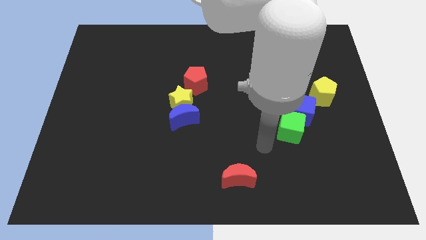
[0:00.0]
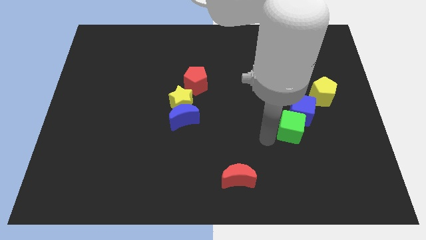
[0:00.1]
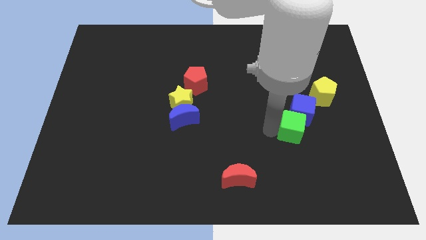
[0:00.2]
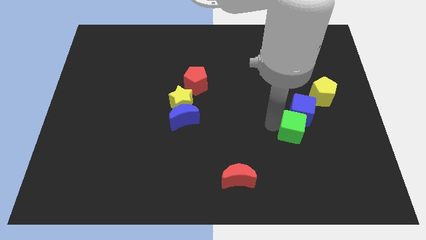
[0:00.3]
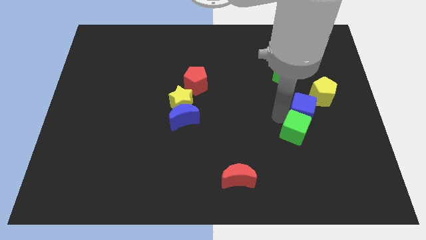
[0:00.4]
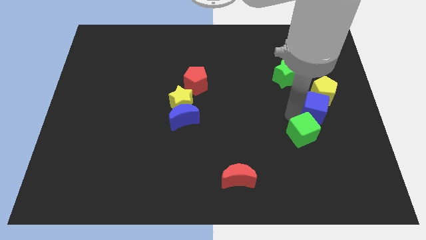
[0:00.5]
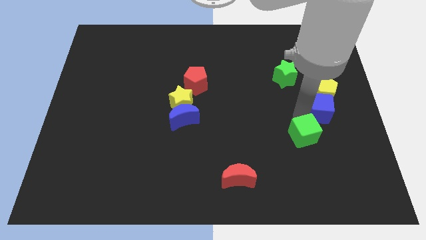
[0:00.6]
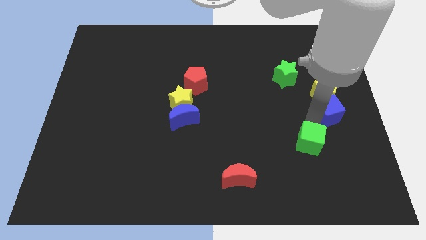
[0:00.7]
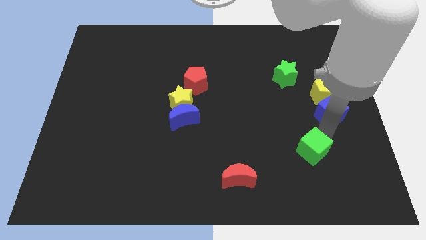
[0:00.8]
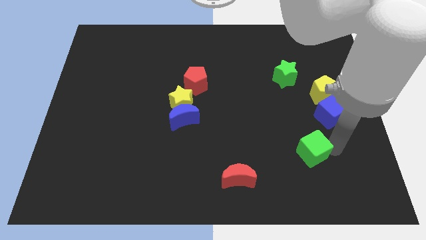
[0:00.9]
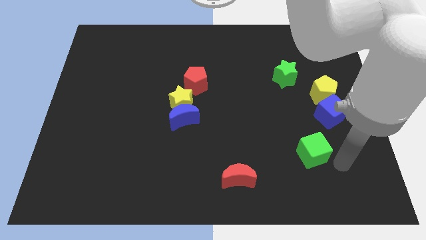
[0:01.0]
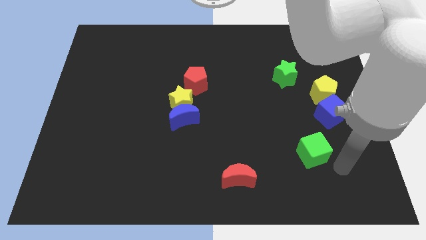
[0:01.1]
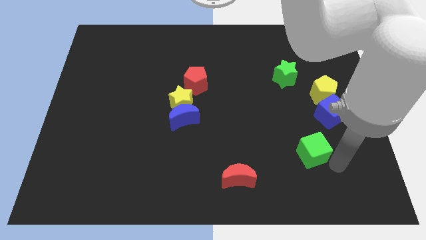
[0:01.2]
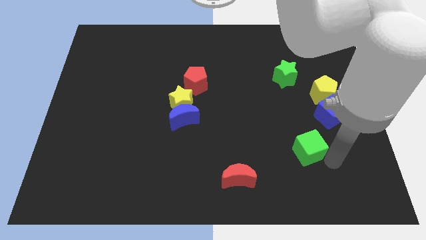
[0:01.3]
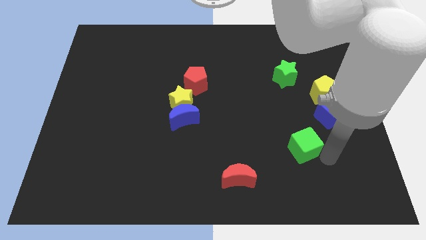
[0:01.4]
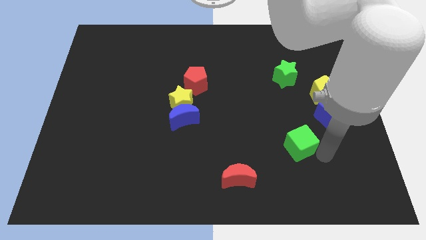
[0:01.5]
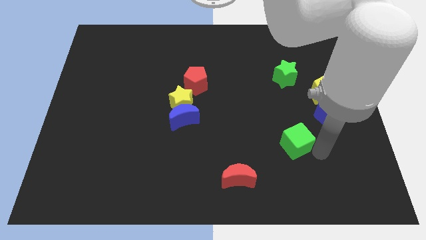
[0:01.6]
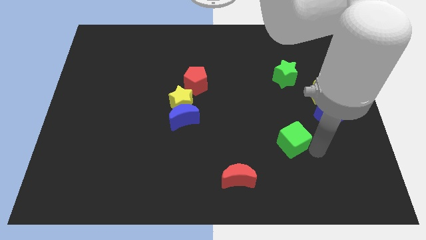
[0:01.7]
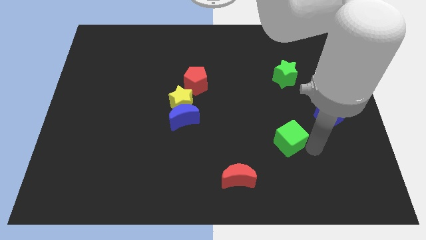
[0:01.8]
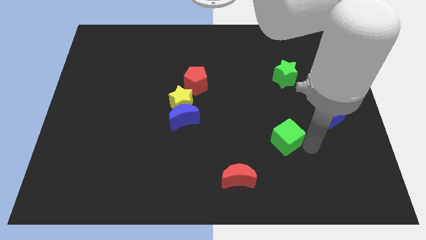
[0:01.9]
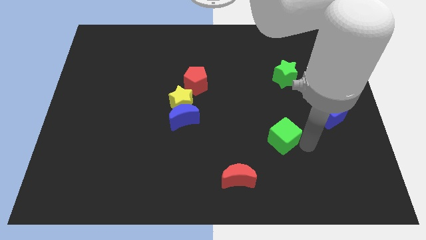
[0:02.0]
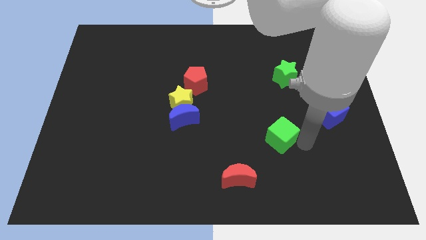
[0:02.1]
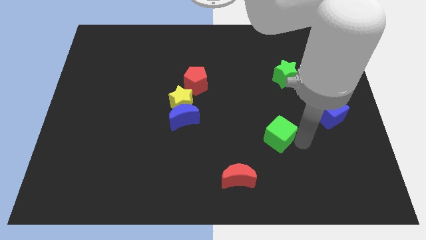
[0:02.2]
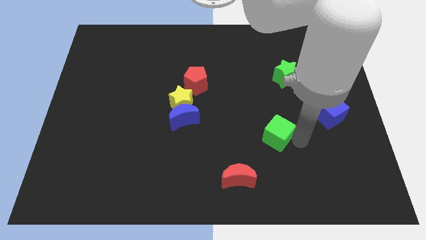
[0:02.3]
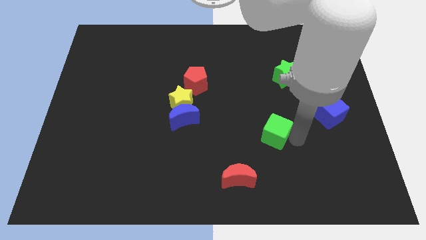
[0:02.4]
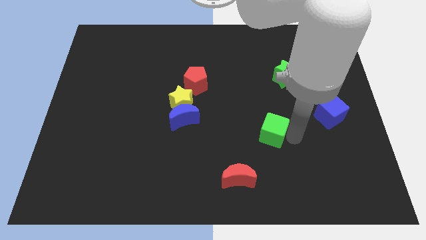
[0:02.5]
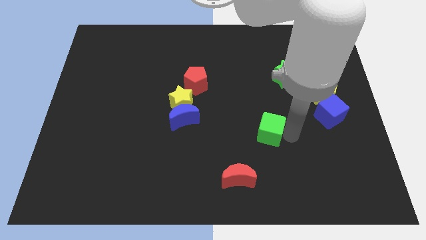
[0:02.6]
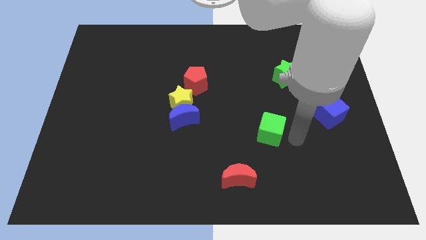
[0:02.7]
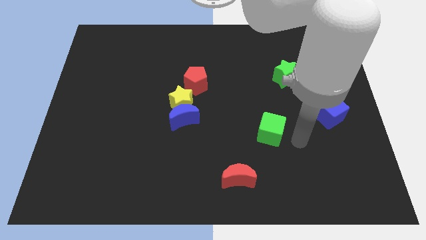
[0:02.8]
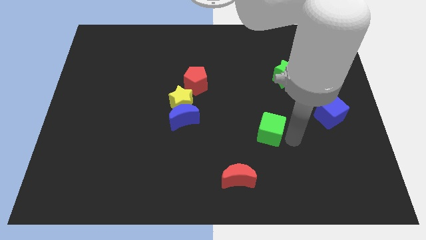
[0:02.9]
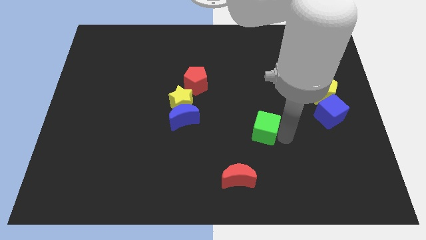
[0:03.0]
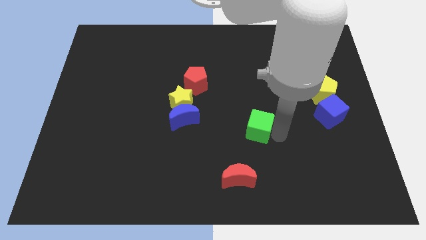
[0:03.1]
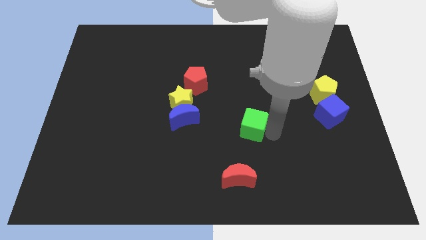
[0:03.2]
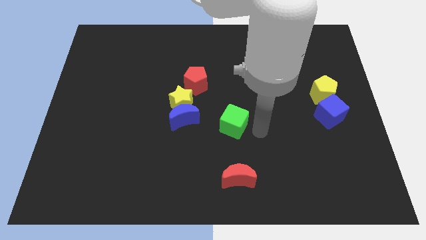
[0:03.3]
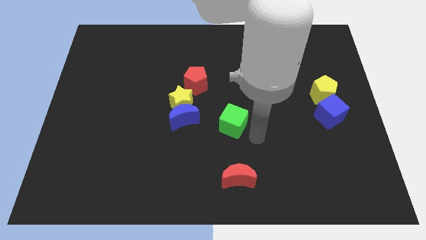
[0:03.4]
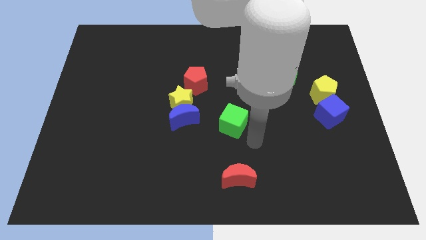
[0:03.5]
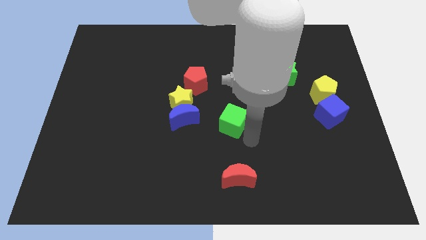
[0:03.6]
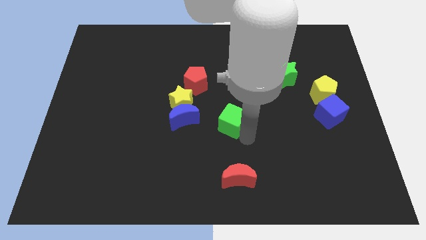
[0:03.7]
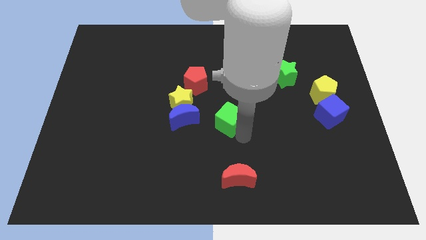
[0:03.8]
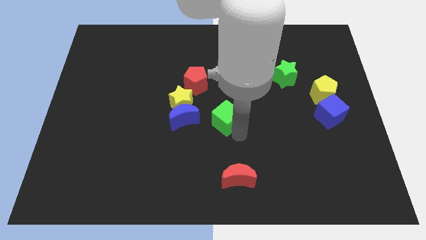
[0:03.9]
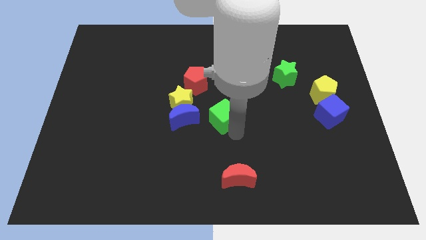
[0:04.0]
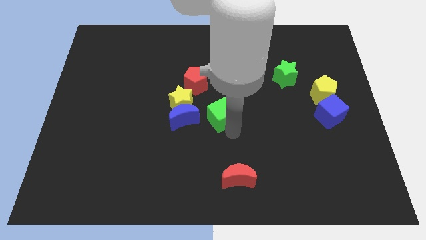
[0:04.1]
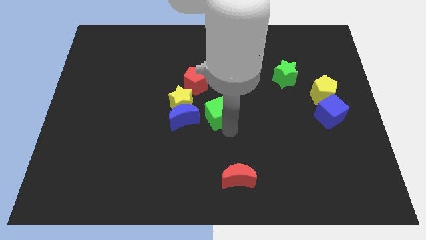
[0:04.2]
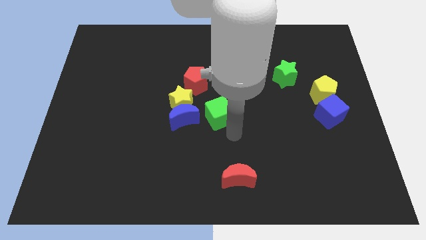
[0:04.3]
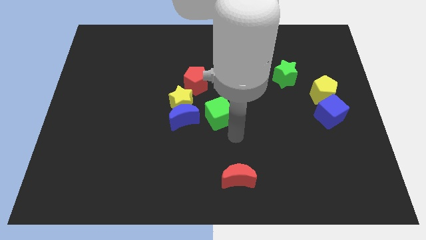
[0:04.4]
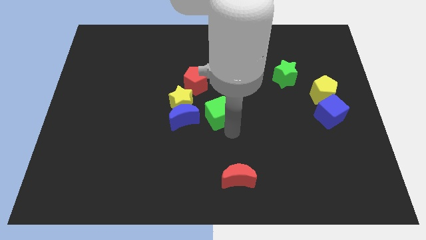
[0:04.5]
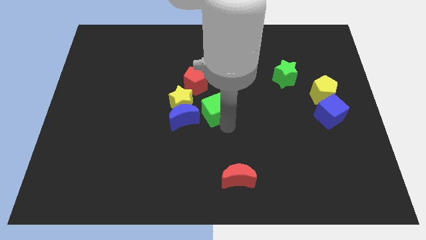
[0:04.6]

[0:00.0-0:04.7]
push the green cube diagonally up and to the right of the blue moon

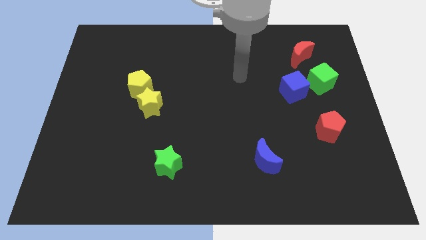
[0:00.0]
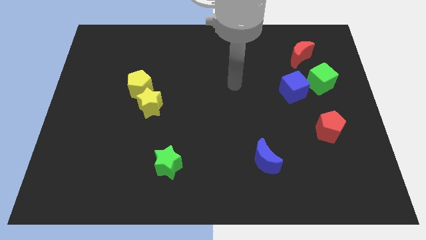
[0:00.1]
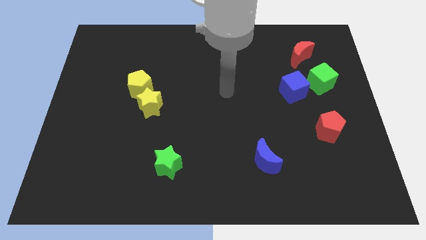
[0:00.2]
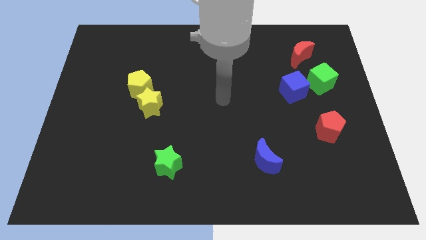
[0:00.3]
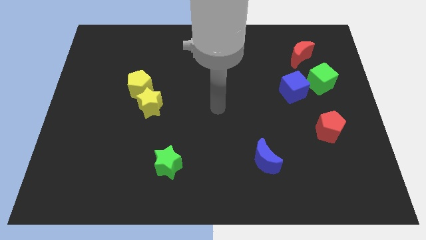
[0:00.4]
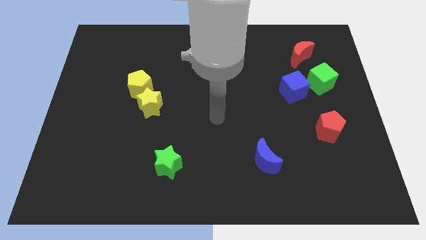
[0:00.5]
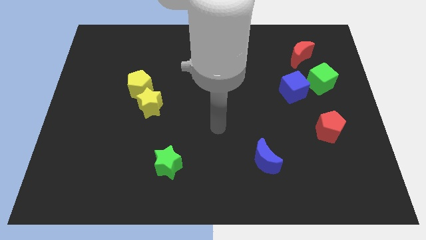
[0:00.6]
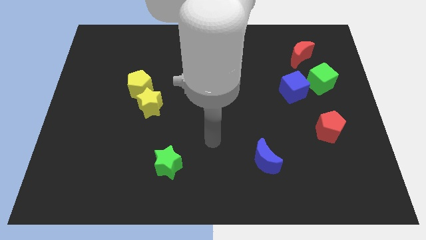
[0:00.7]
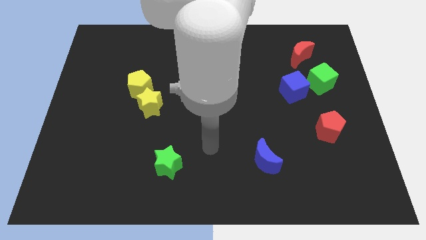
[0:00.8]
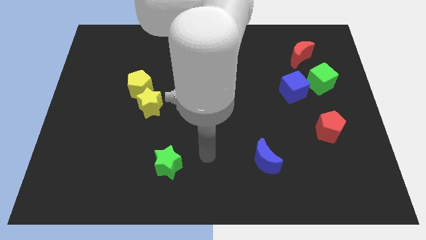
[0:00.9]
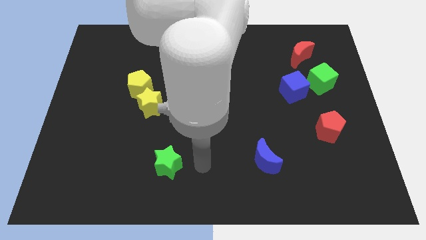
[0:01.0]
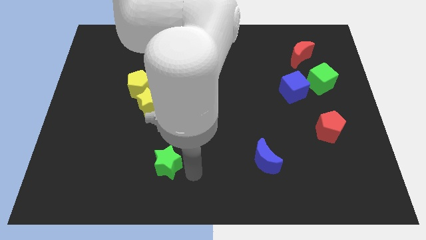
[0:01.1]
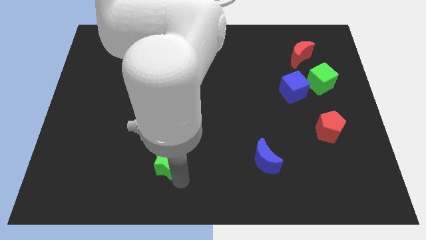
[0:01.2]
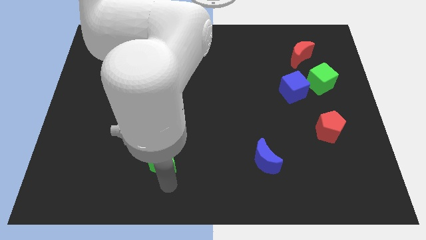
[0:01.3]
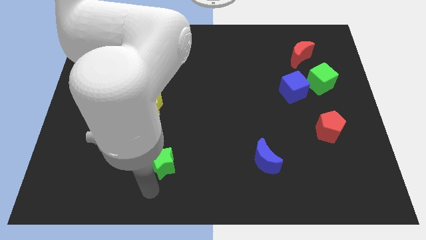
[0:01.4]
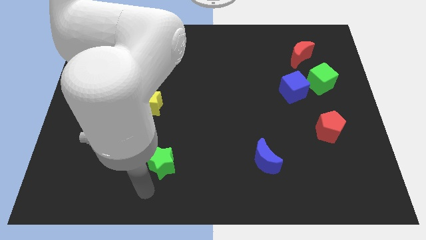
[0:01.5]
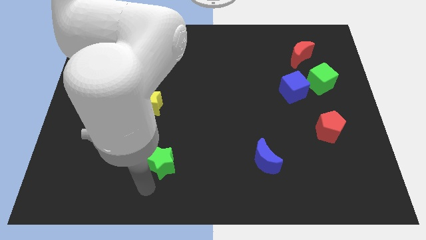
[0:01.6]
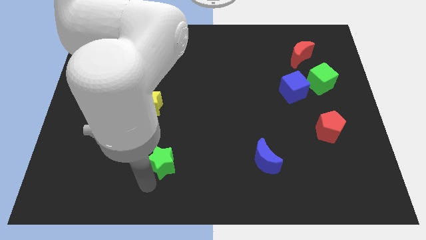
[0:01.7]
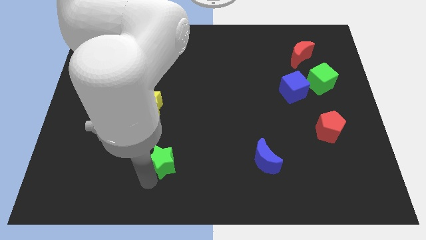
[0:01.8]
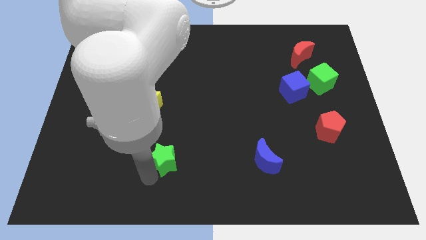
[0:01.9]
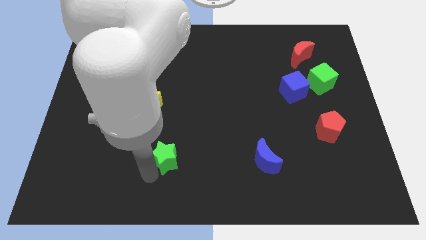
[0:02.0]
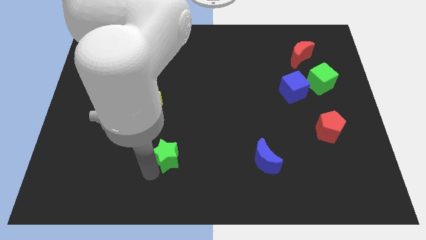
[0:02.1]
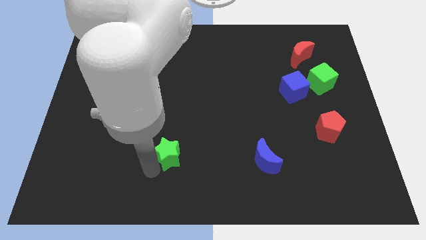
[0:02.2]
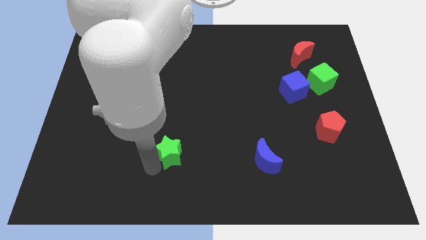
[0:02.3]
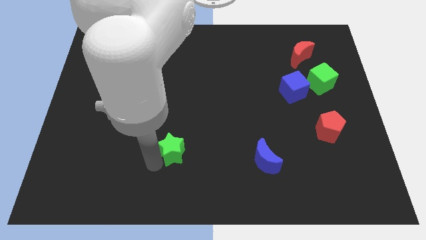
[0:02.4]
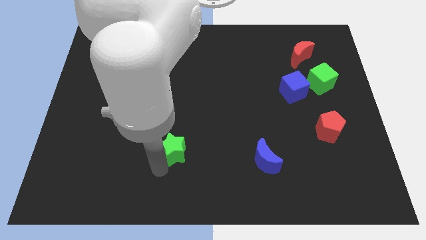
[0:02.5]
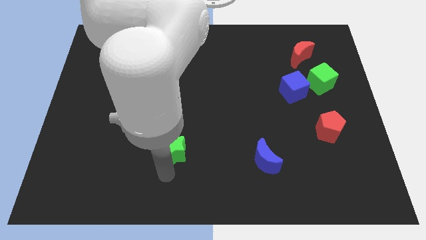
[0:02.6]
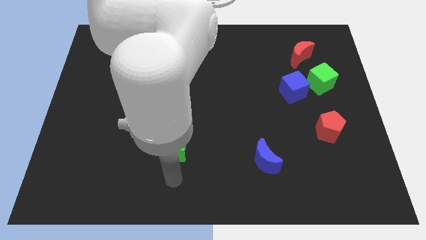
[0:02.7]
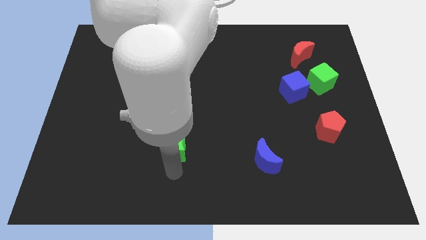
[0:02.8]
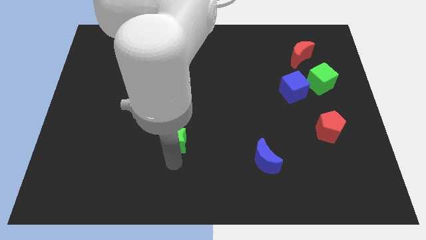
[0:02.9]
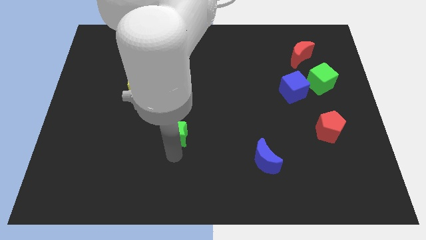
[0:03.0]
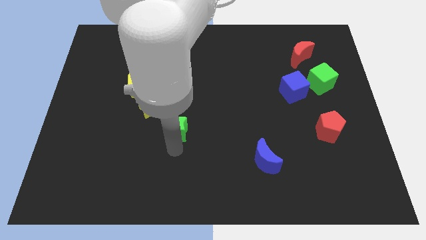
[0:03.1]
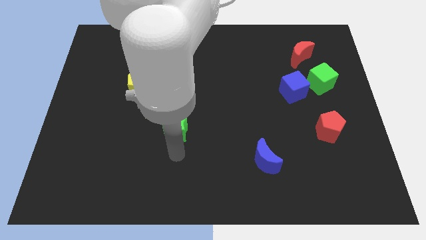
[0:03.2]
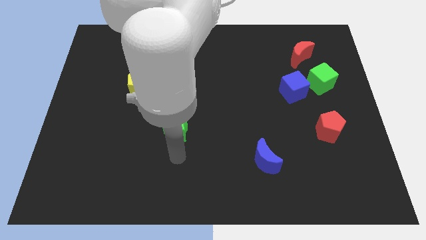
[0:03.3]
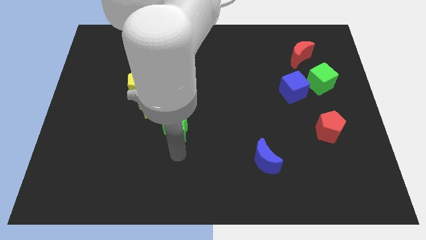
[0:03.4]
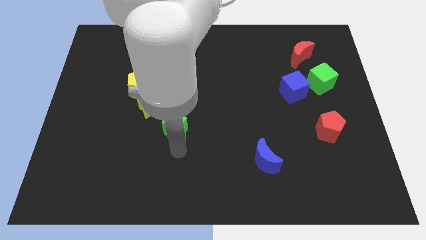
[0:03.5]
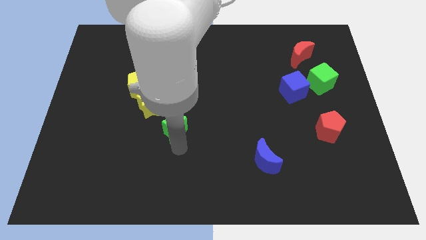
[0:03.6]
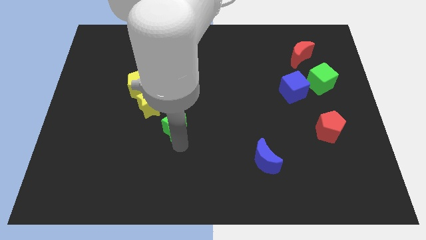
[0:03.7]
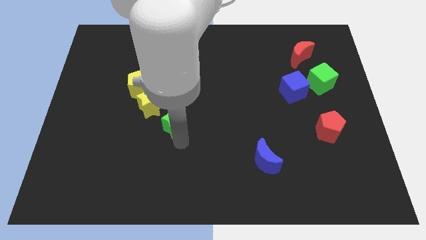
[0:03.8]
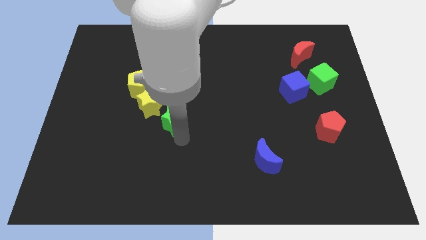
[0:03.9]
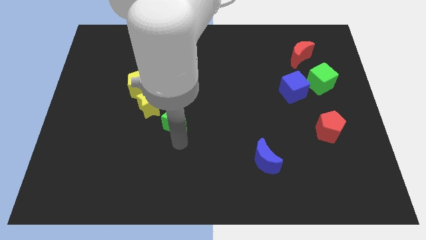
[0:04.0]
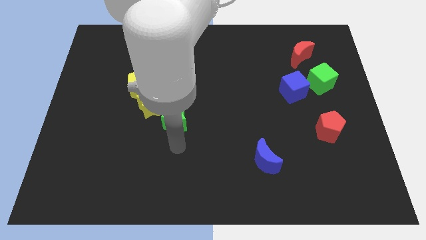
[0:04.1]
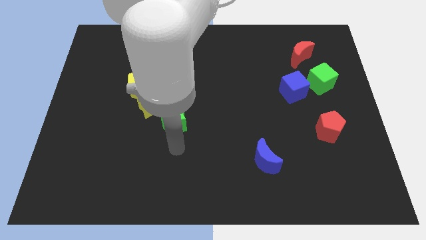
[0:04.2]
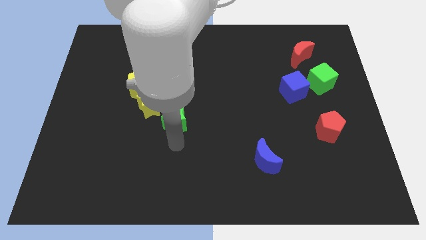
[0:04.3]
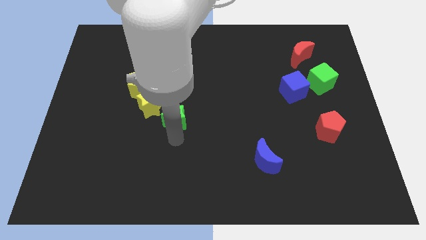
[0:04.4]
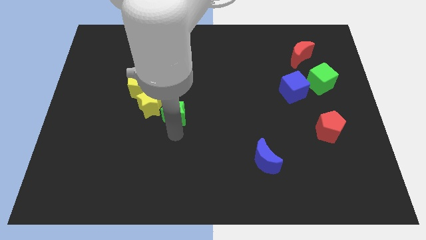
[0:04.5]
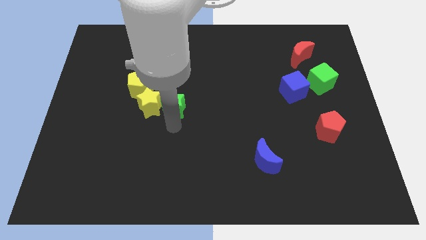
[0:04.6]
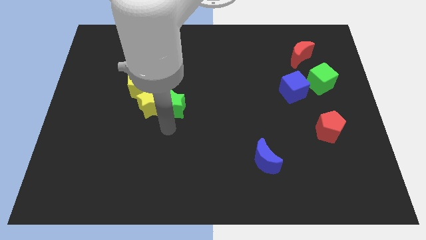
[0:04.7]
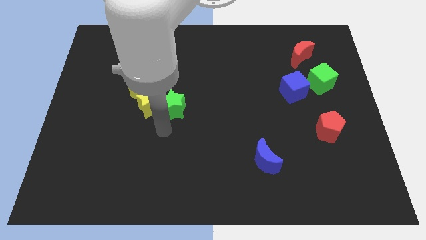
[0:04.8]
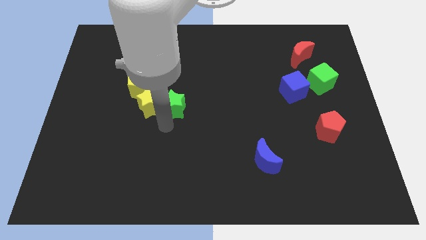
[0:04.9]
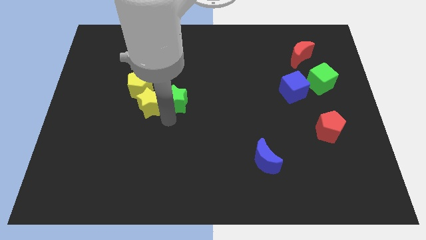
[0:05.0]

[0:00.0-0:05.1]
push the green star to the right of the yellow pentagon
